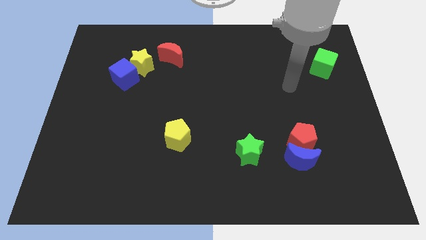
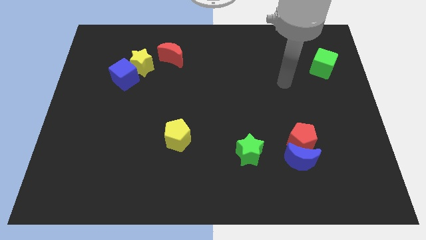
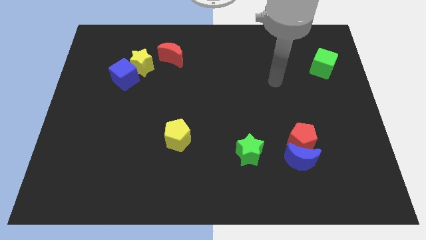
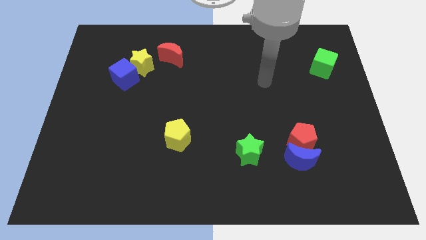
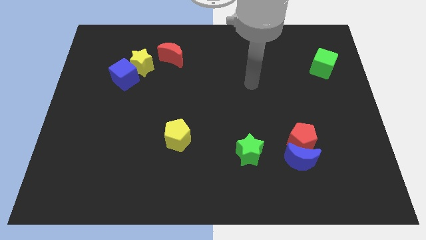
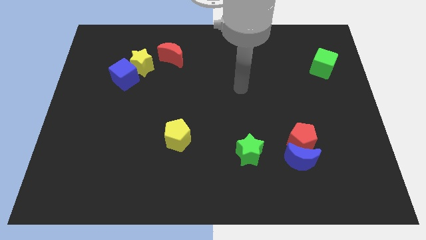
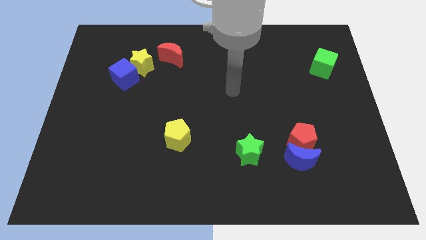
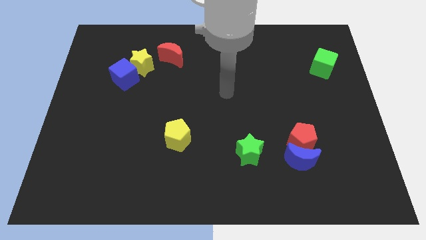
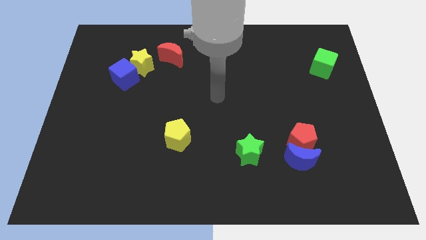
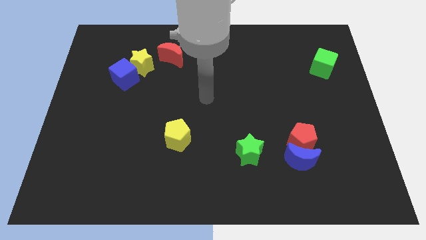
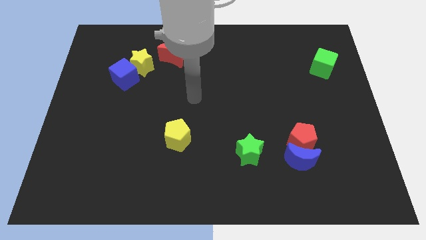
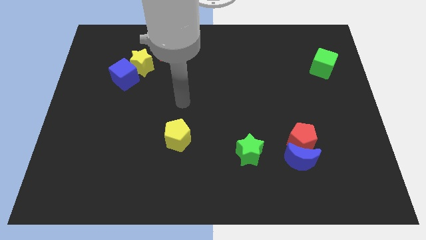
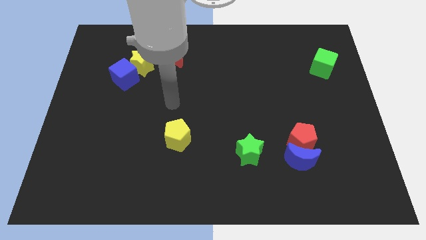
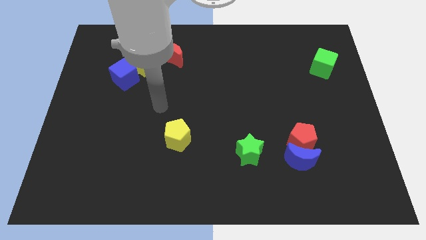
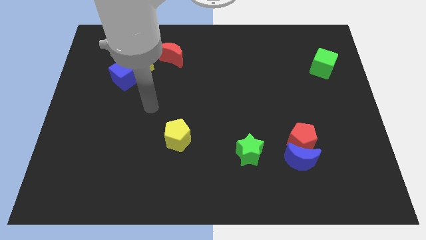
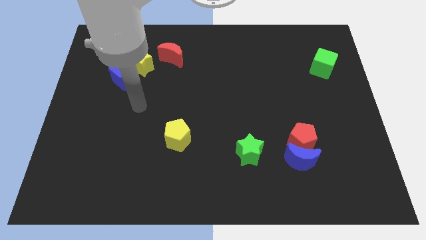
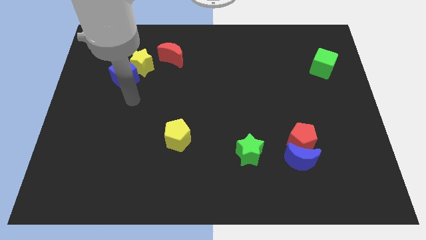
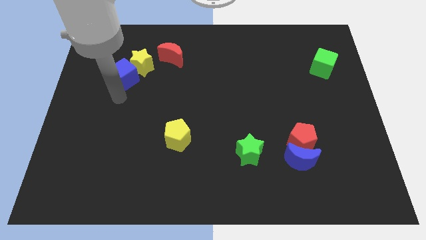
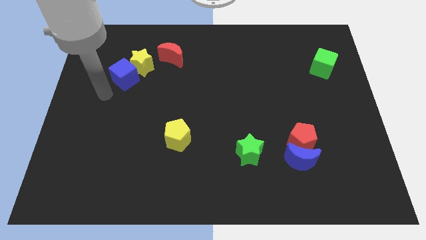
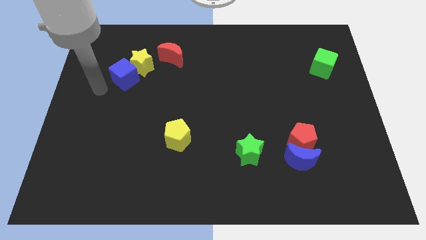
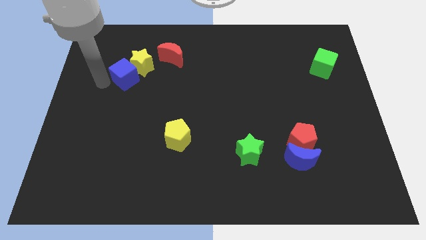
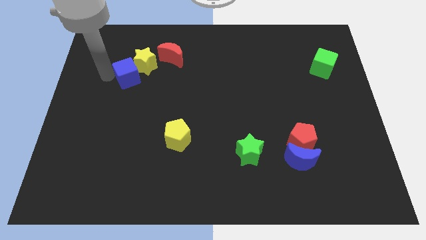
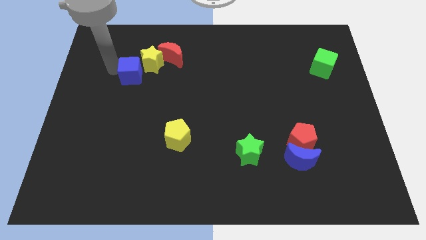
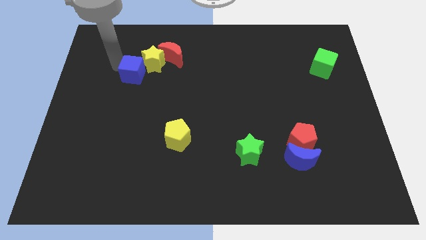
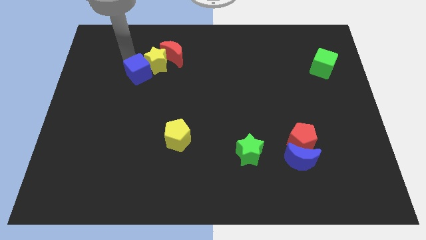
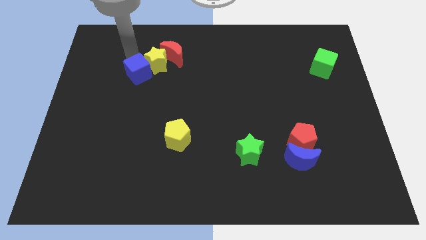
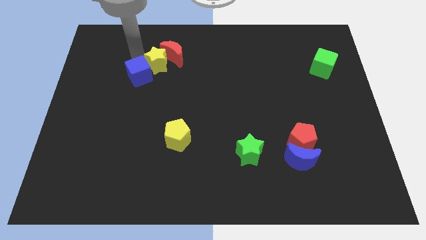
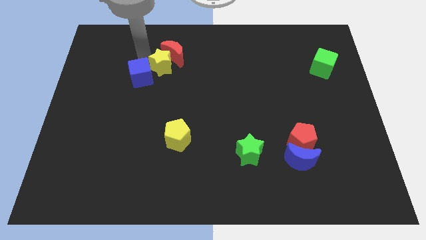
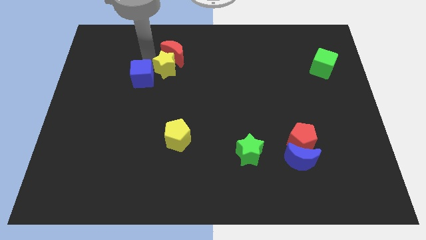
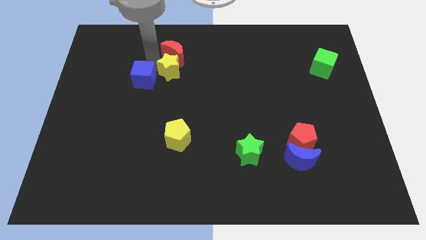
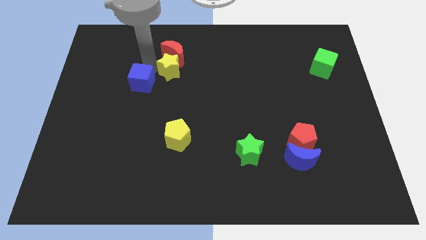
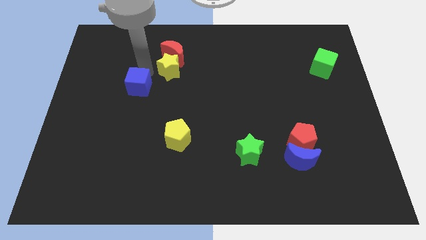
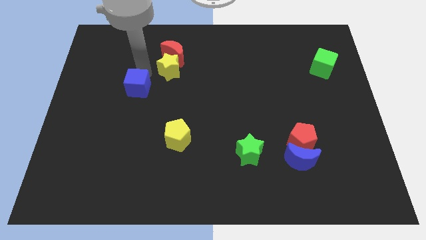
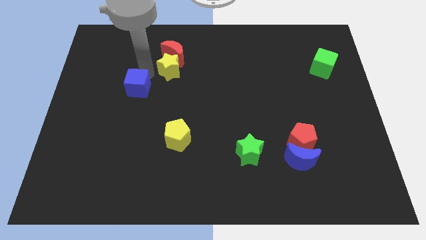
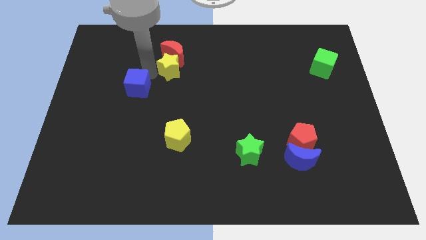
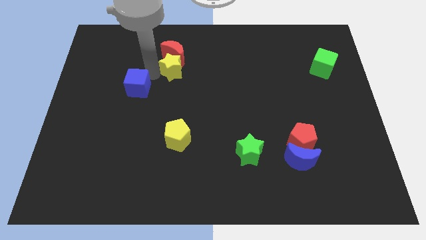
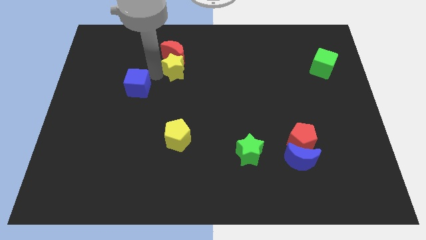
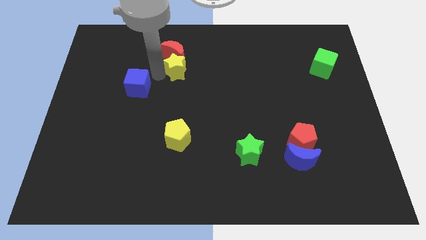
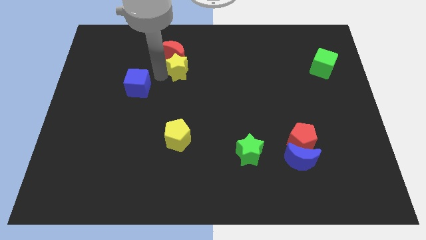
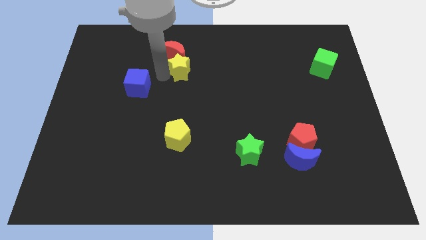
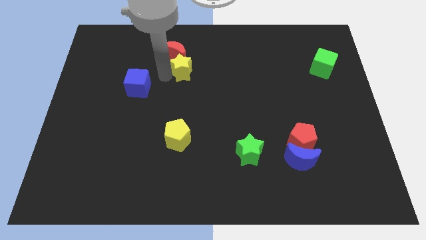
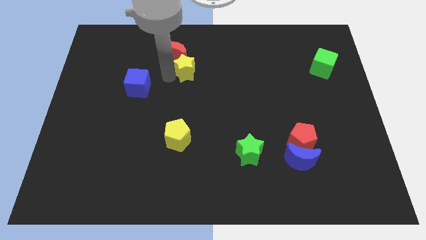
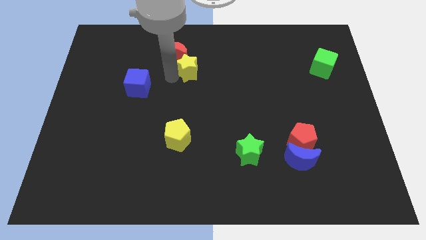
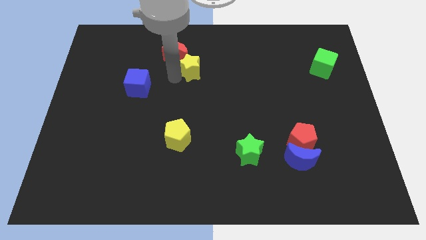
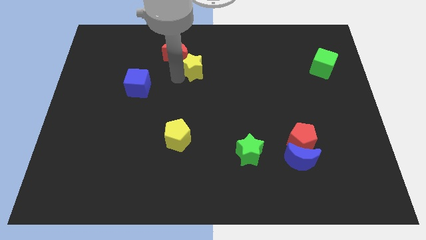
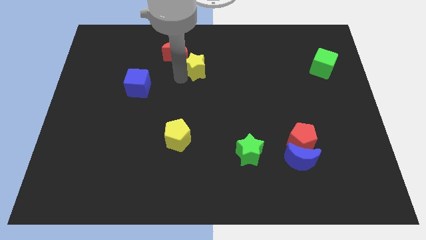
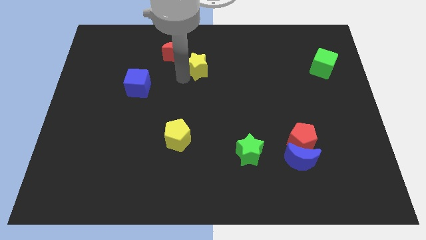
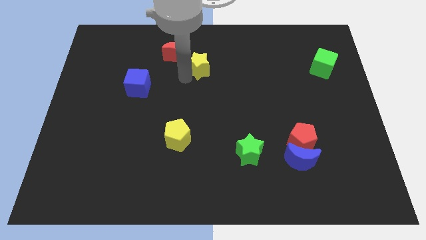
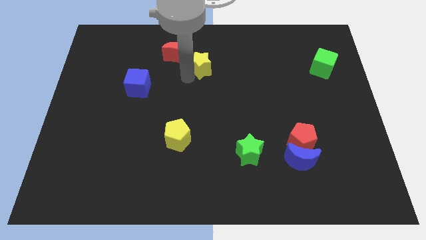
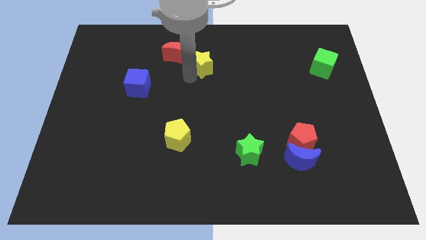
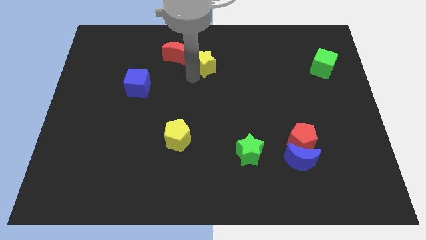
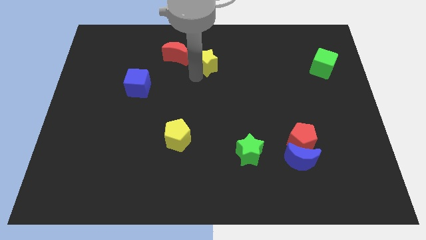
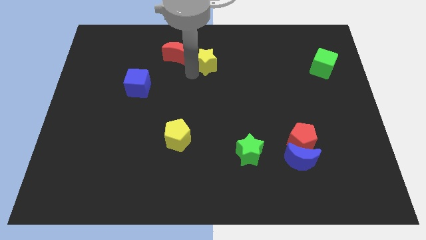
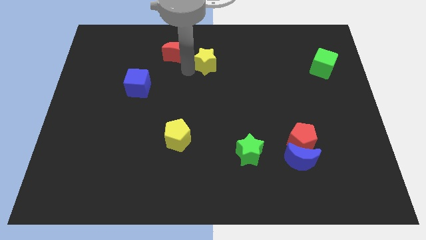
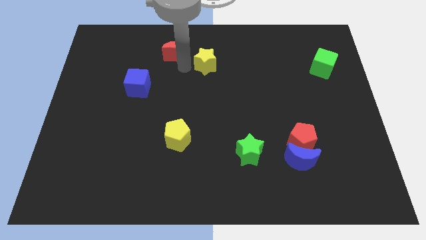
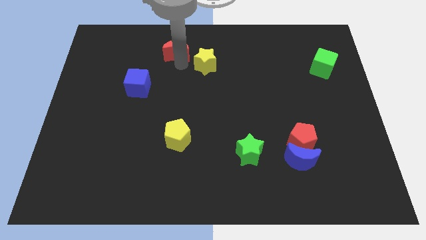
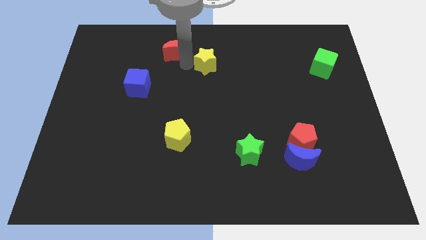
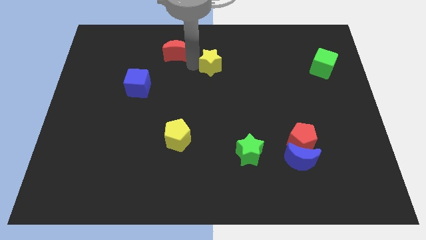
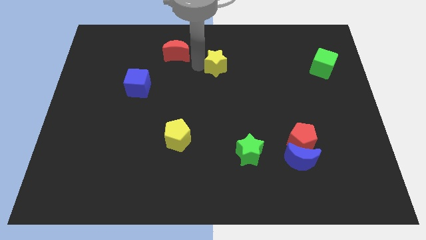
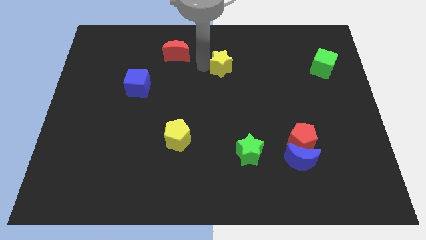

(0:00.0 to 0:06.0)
push the yellow star to the right

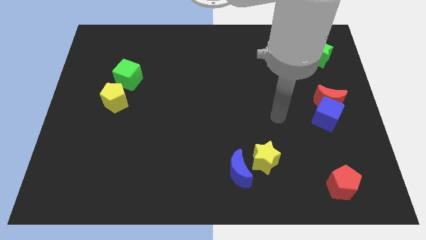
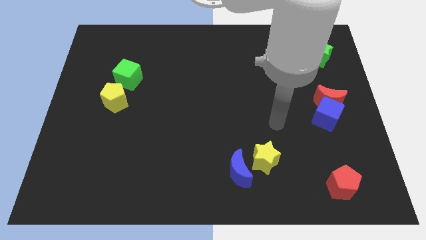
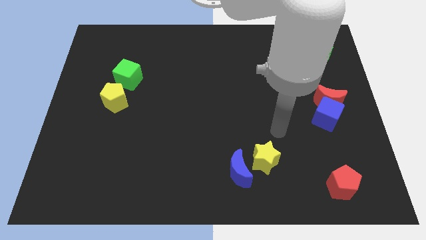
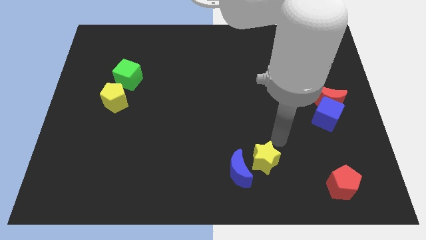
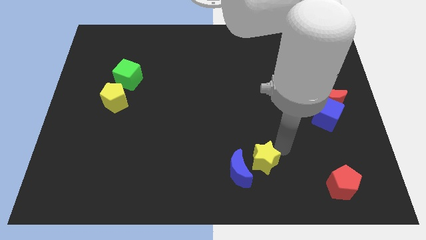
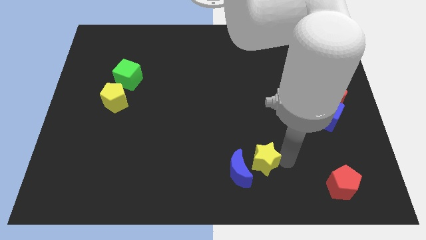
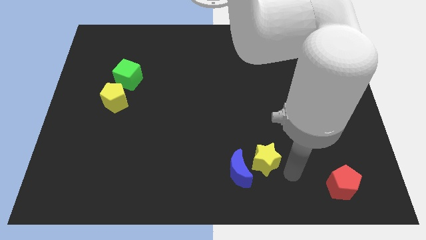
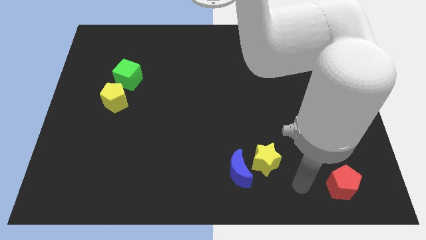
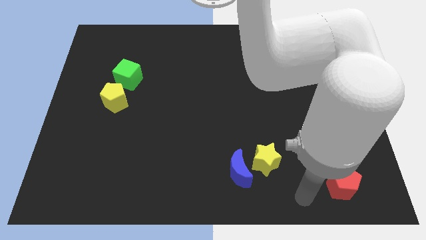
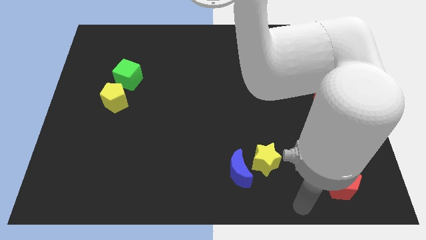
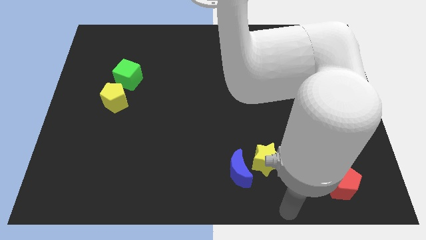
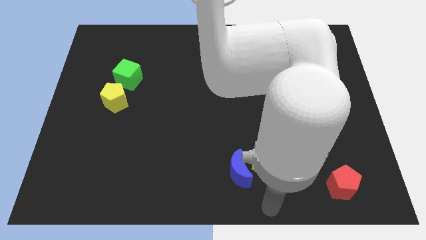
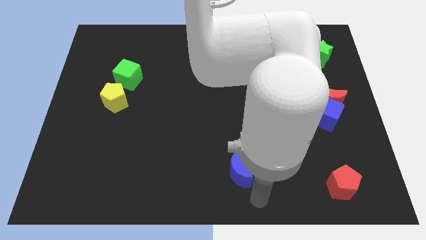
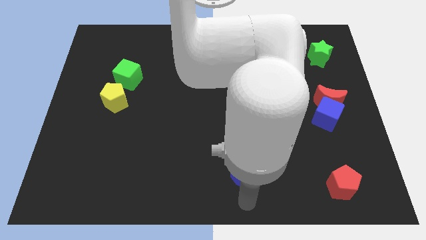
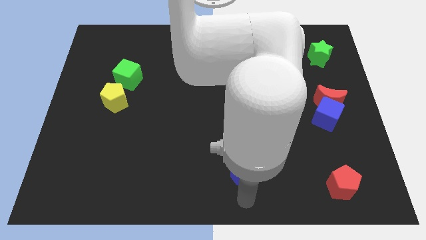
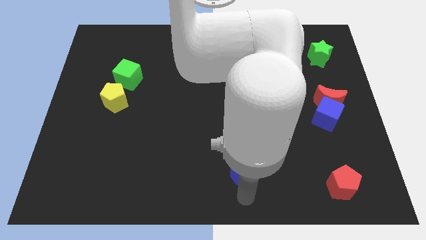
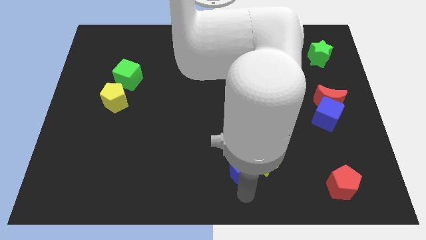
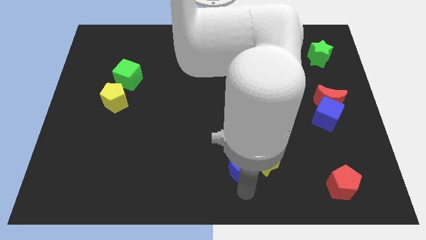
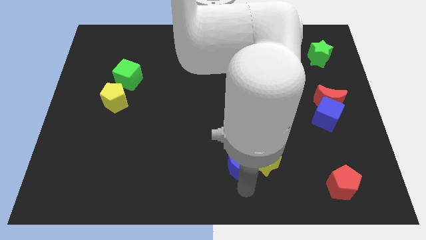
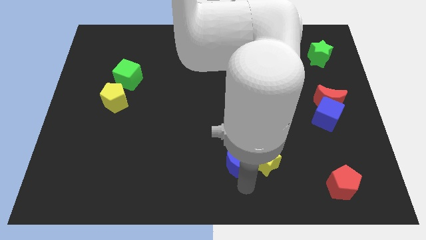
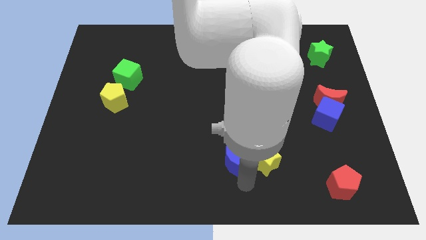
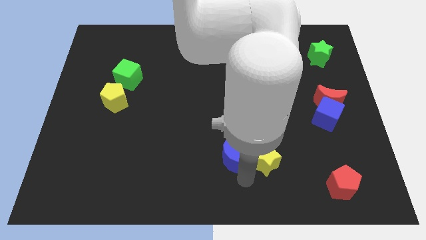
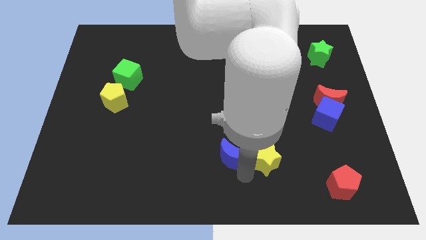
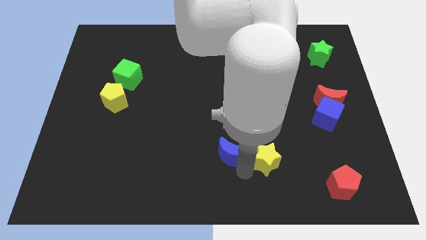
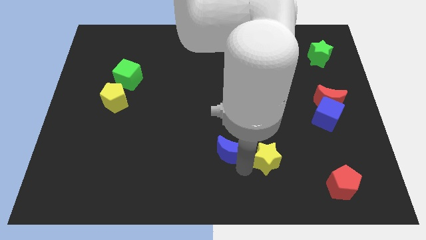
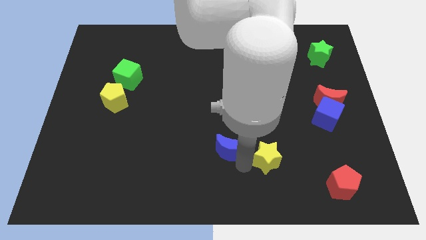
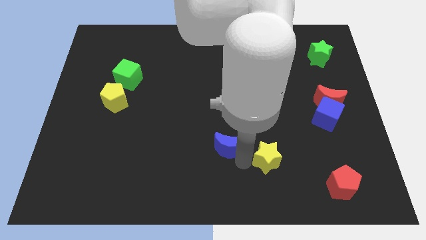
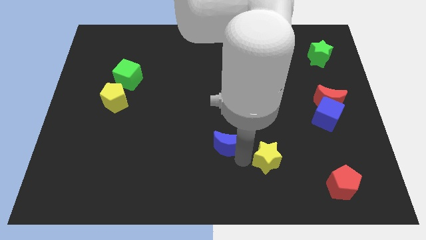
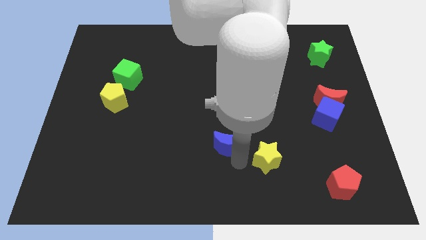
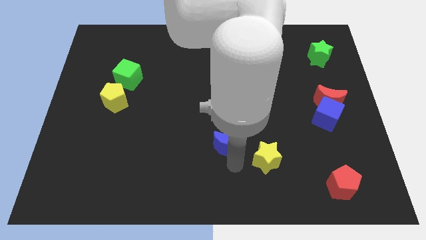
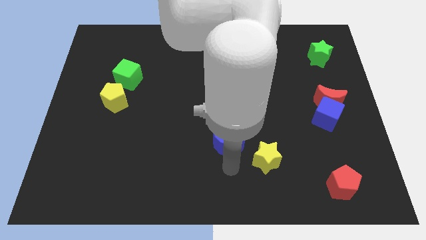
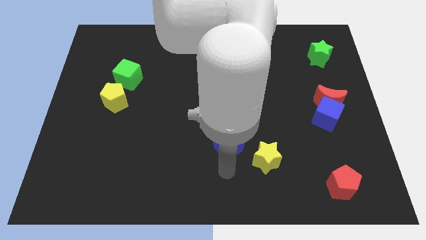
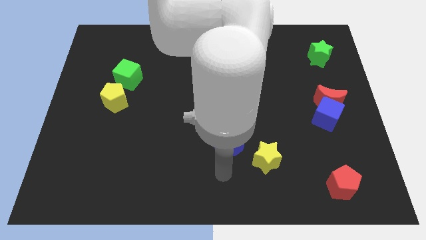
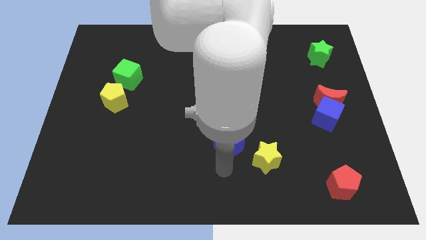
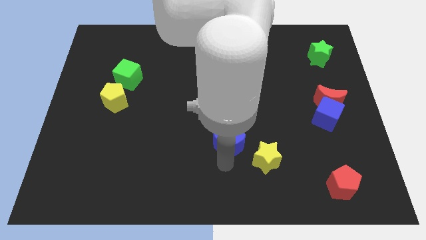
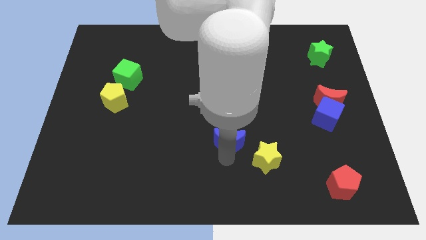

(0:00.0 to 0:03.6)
push the blue moon a little bit up
